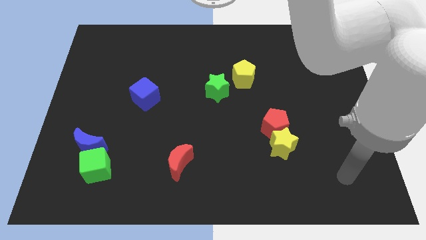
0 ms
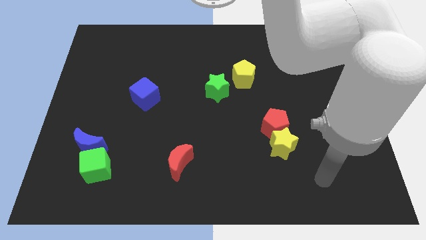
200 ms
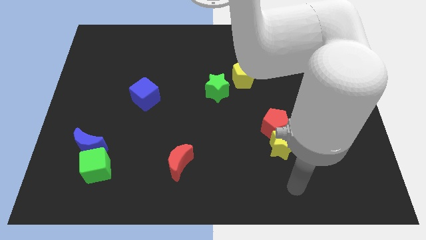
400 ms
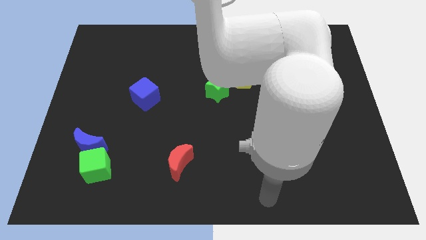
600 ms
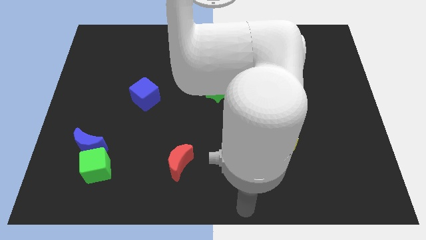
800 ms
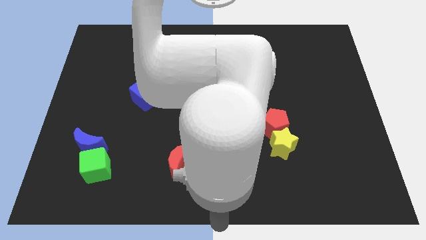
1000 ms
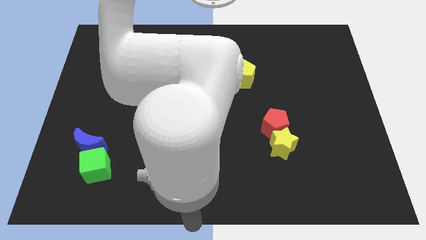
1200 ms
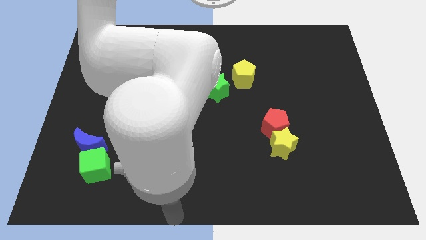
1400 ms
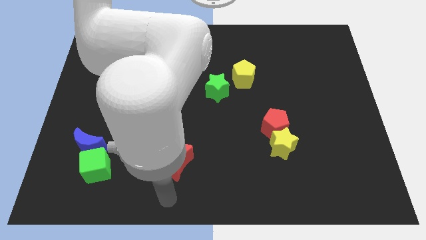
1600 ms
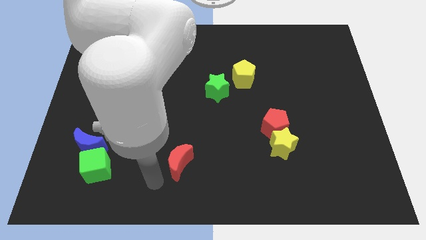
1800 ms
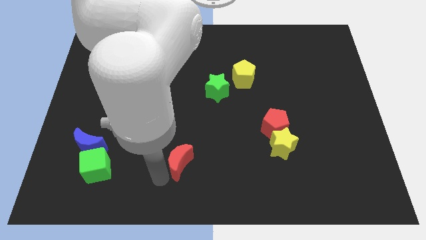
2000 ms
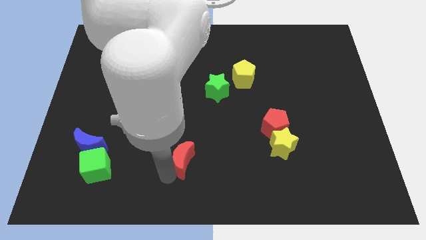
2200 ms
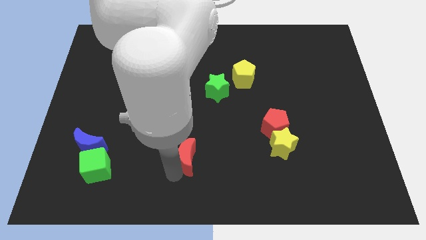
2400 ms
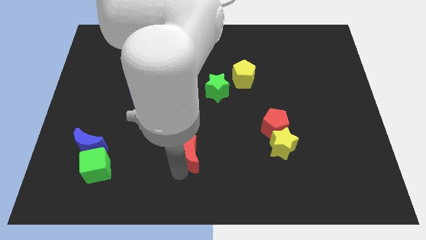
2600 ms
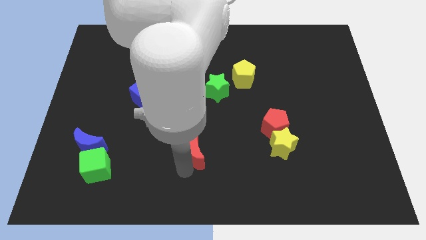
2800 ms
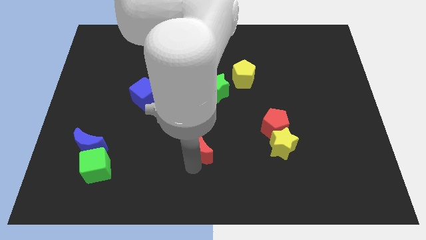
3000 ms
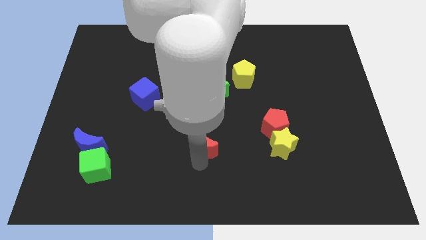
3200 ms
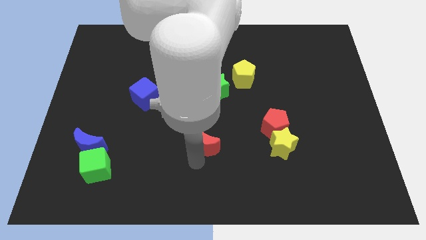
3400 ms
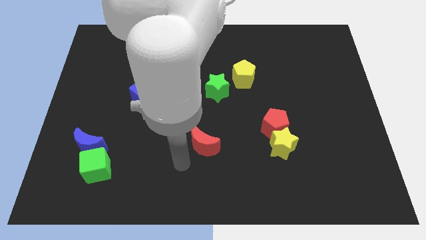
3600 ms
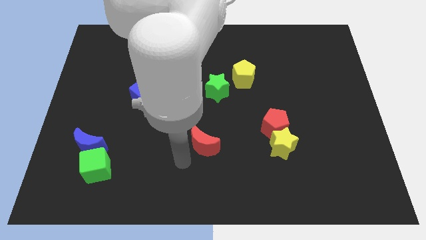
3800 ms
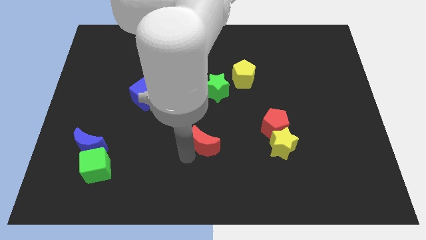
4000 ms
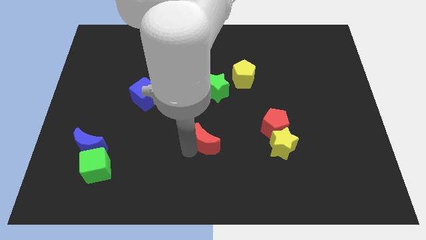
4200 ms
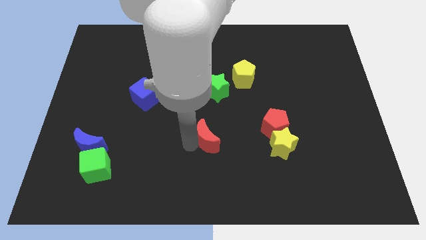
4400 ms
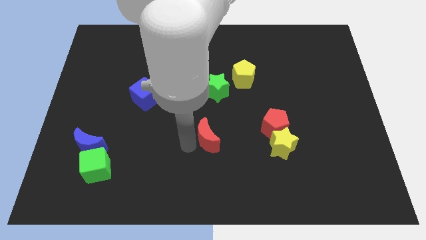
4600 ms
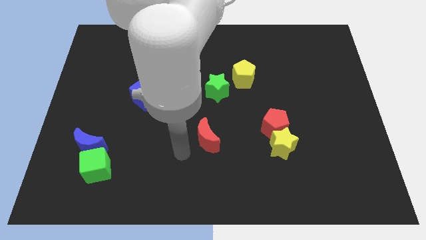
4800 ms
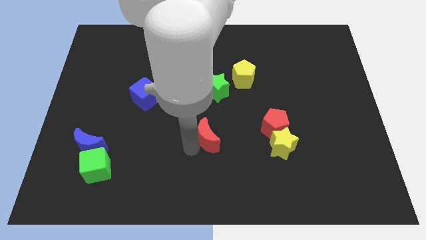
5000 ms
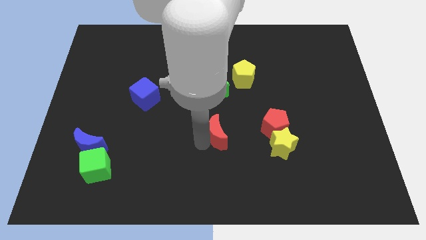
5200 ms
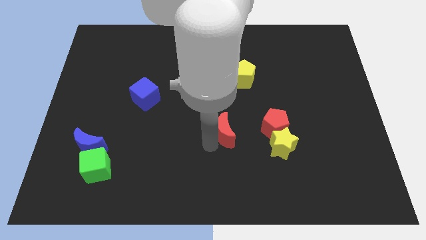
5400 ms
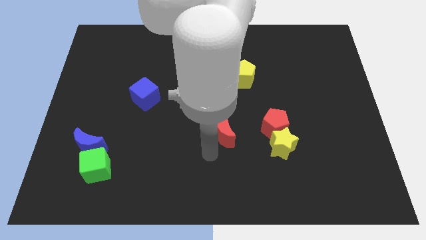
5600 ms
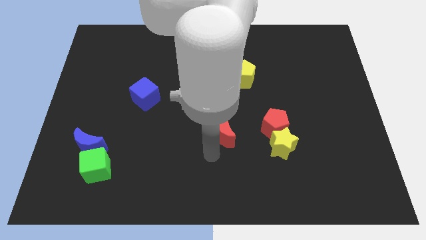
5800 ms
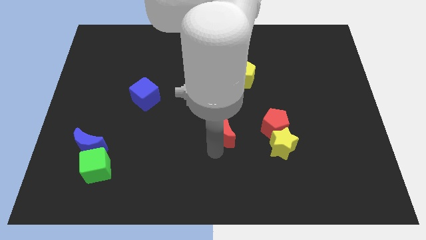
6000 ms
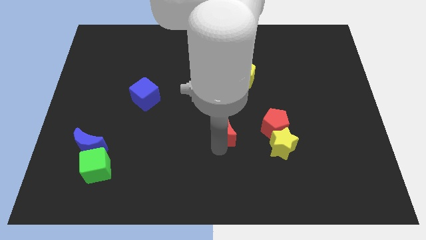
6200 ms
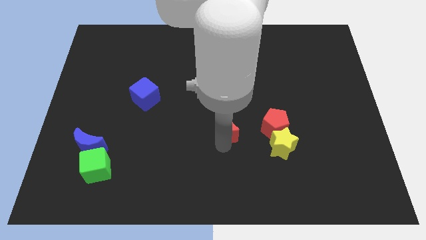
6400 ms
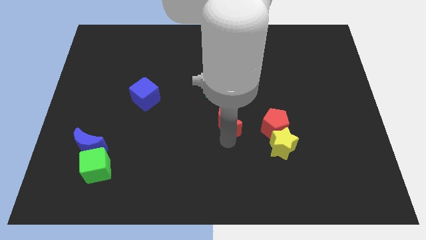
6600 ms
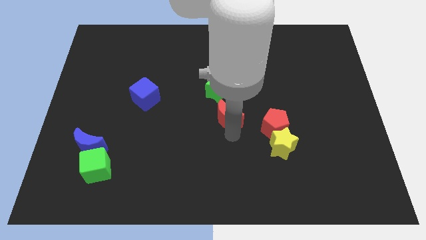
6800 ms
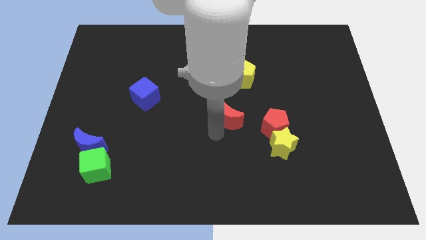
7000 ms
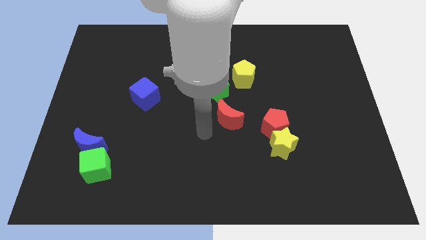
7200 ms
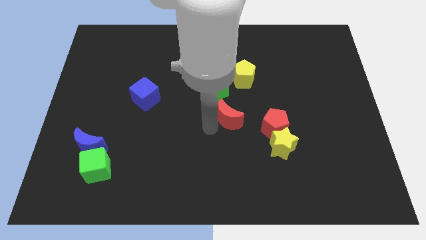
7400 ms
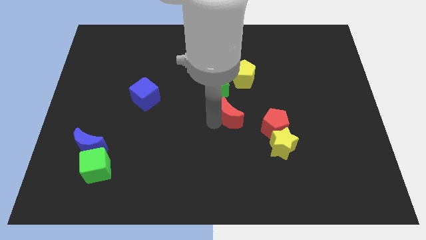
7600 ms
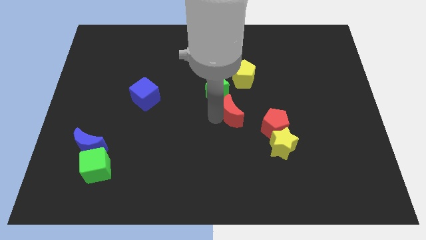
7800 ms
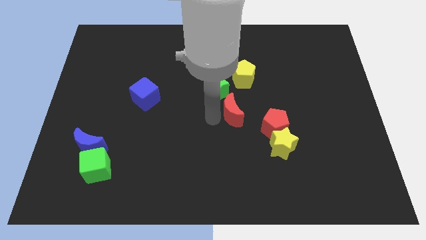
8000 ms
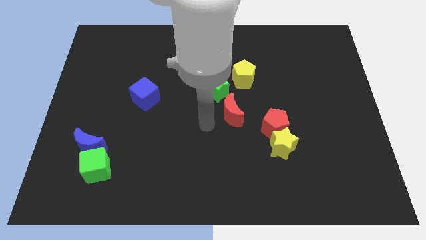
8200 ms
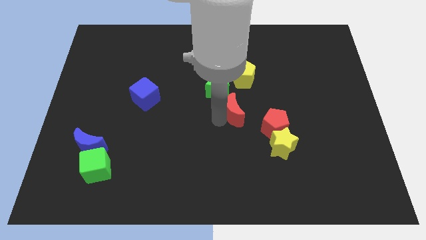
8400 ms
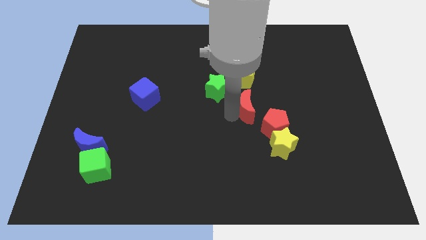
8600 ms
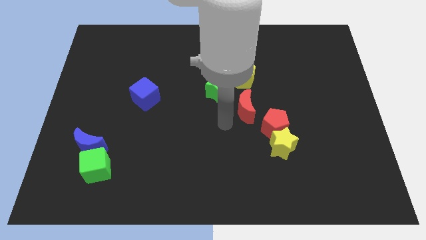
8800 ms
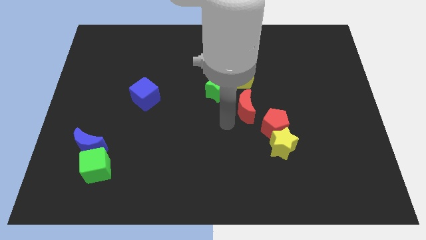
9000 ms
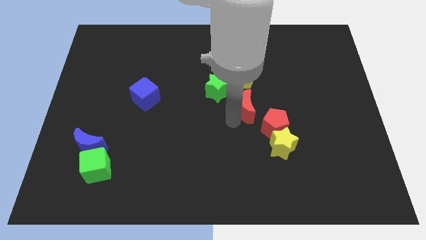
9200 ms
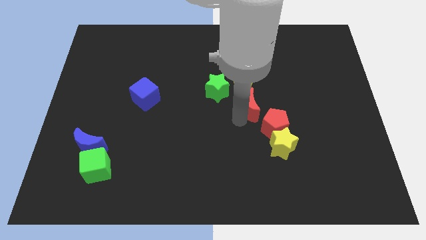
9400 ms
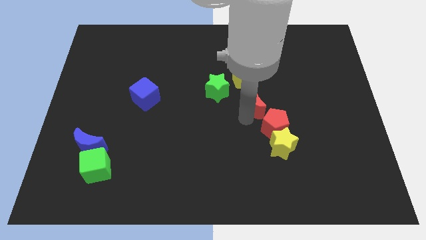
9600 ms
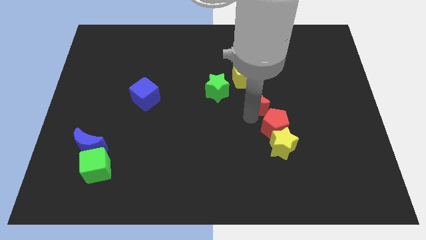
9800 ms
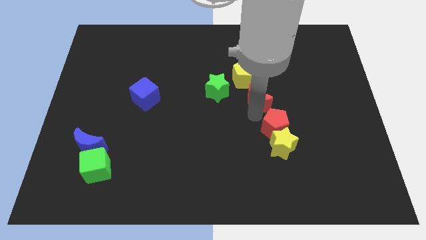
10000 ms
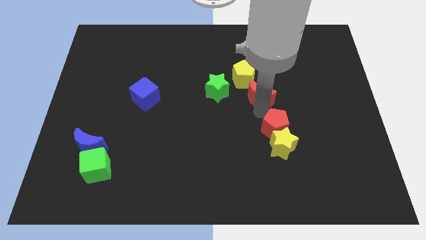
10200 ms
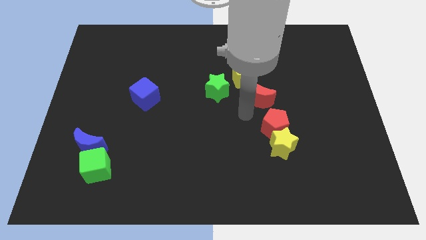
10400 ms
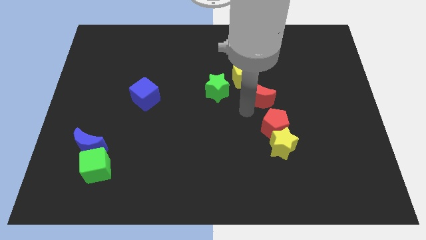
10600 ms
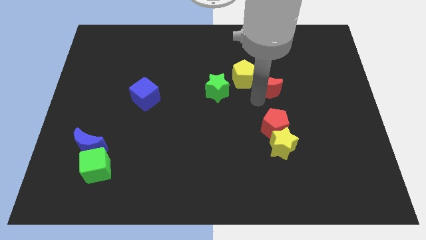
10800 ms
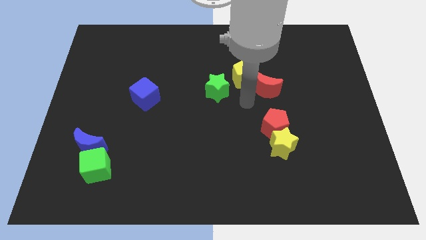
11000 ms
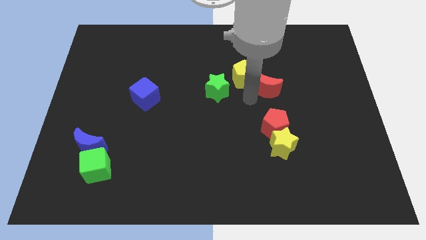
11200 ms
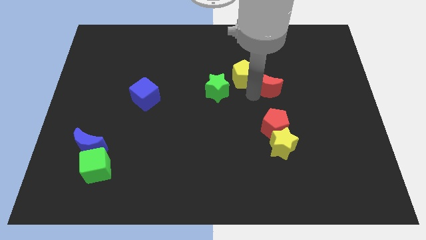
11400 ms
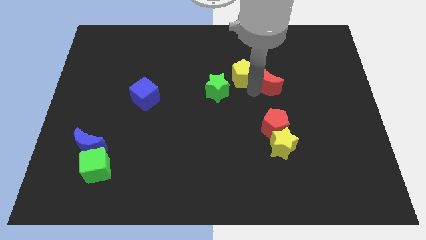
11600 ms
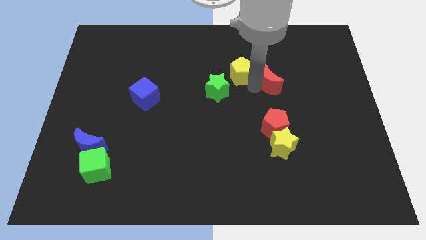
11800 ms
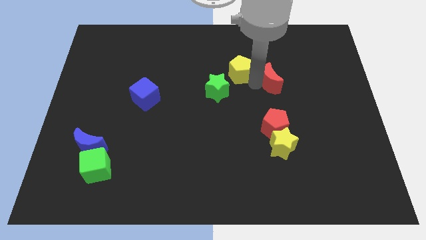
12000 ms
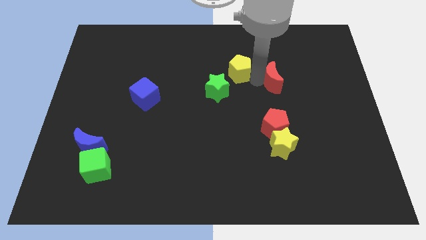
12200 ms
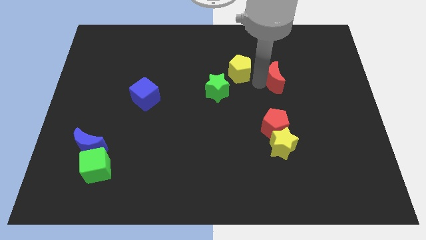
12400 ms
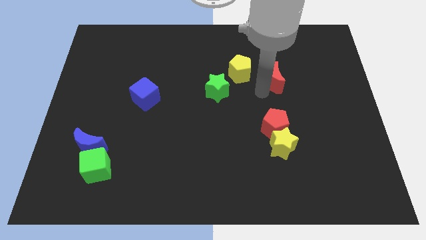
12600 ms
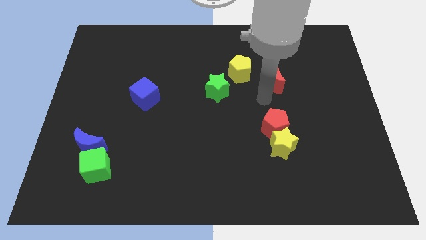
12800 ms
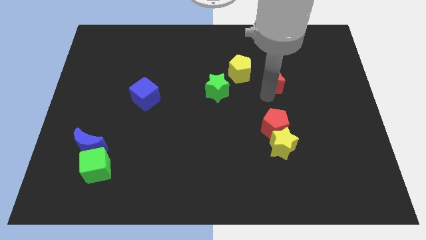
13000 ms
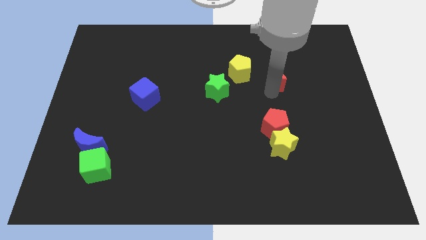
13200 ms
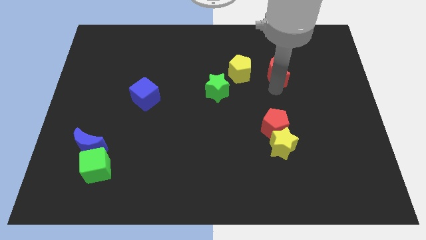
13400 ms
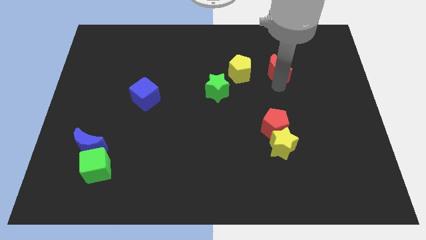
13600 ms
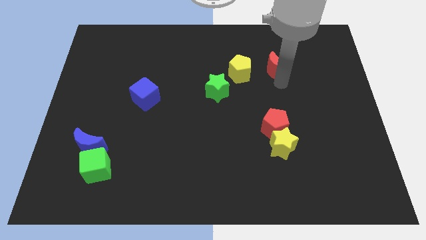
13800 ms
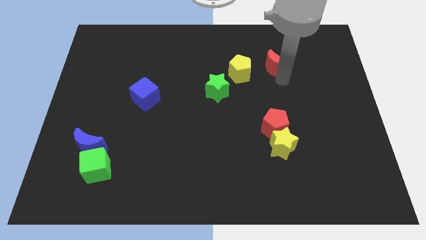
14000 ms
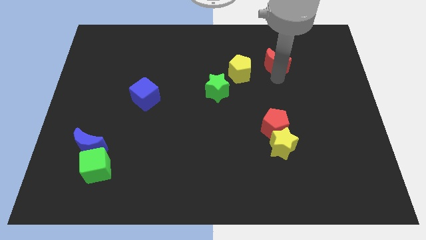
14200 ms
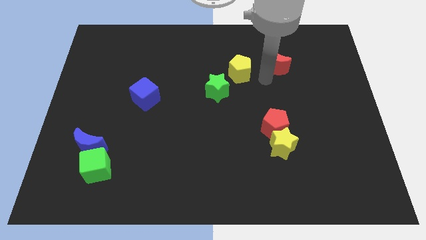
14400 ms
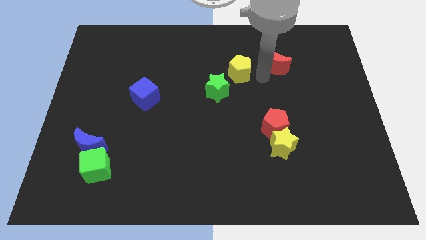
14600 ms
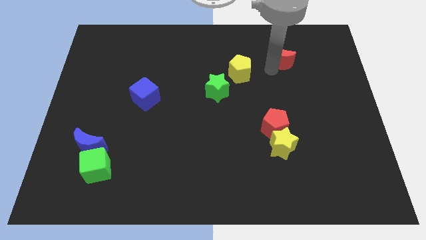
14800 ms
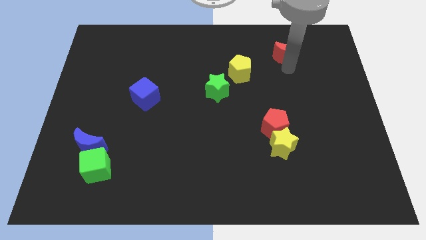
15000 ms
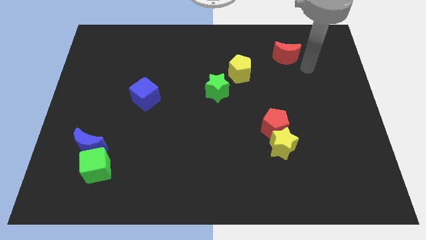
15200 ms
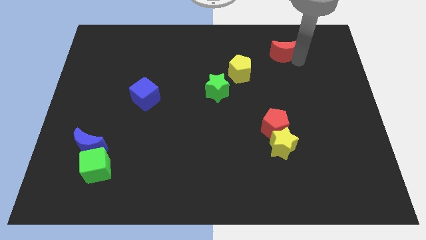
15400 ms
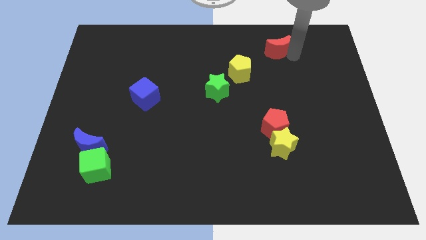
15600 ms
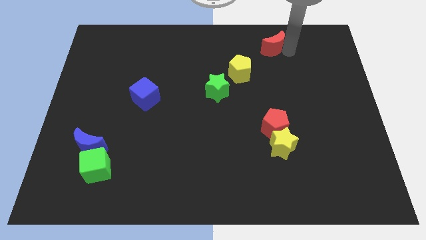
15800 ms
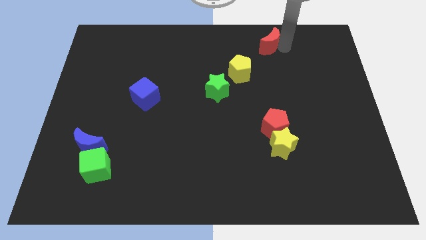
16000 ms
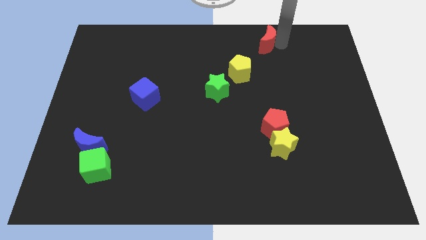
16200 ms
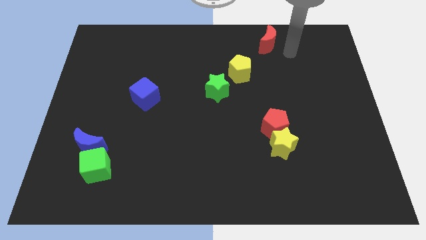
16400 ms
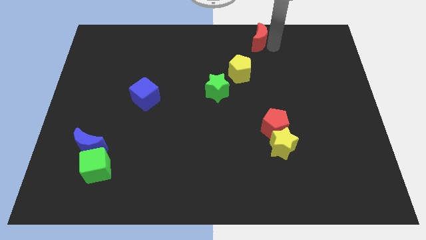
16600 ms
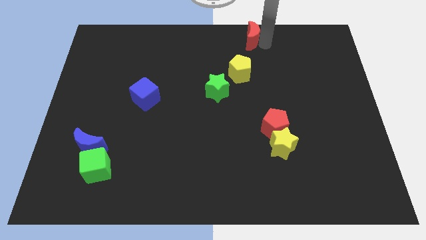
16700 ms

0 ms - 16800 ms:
push the red moon to the towards your base
